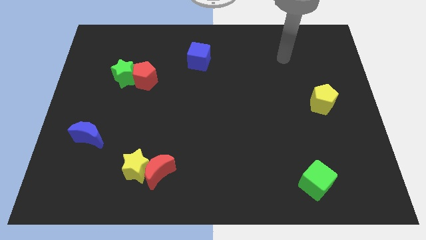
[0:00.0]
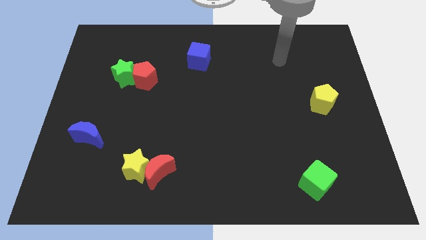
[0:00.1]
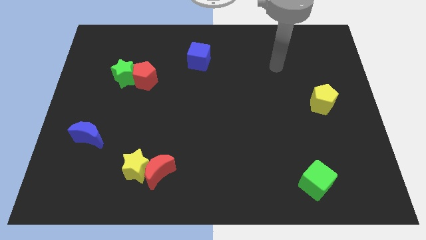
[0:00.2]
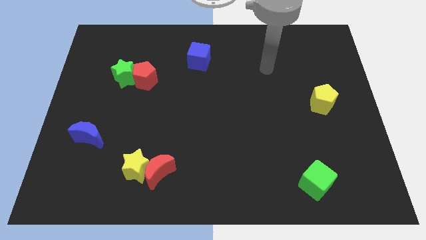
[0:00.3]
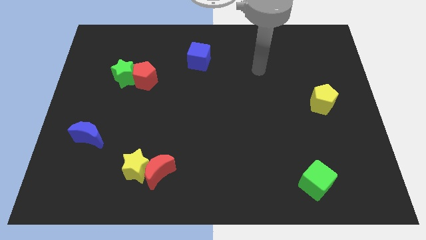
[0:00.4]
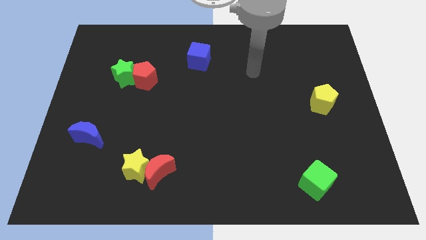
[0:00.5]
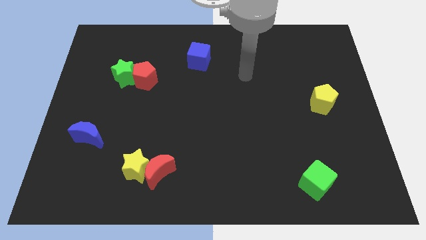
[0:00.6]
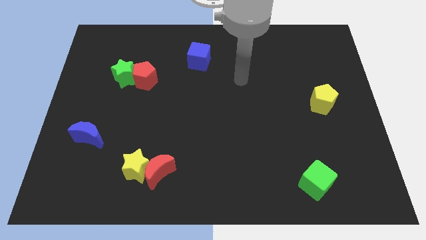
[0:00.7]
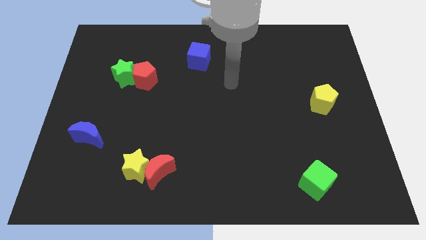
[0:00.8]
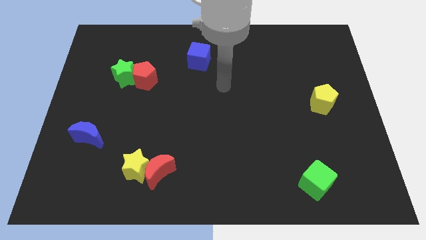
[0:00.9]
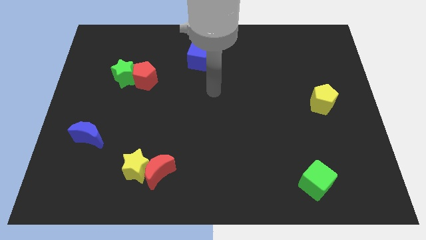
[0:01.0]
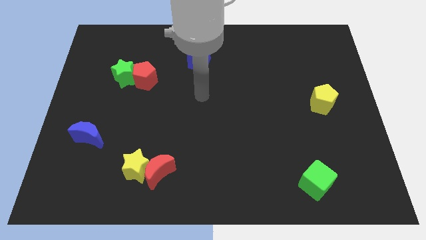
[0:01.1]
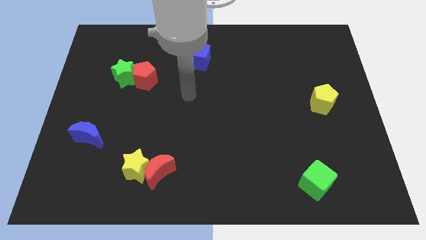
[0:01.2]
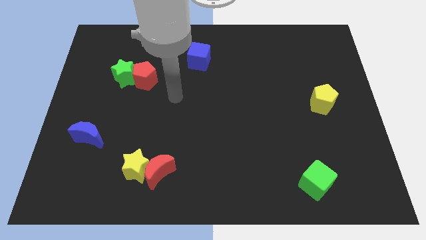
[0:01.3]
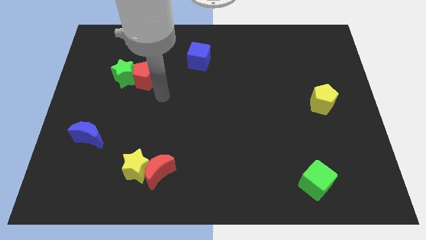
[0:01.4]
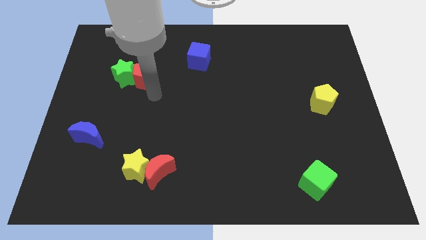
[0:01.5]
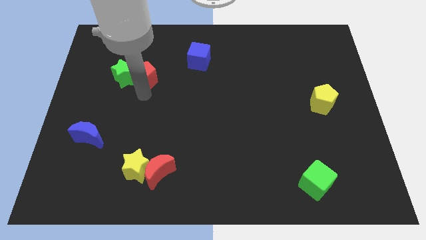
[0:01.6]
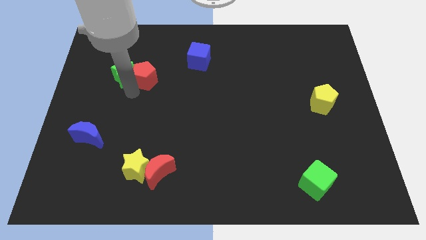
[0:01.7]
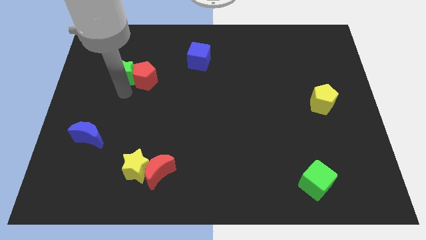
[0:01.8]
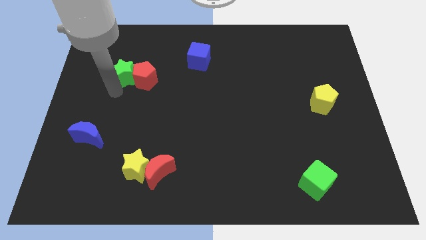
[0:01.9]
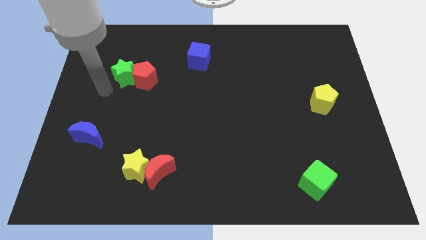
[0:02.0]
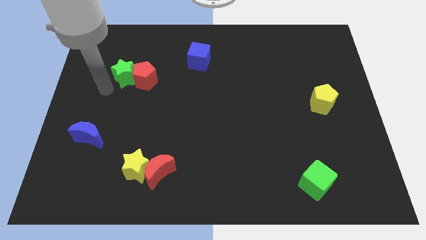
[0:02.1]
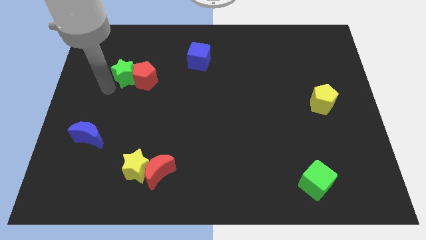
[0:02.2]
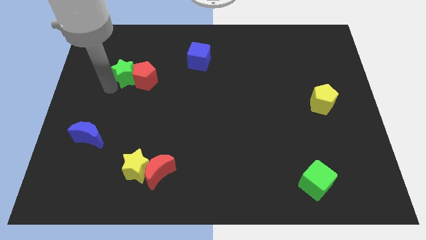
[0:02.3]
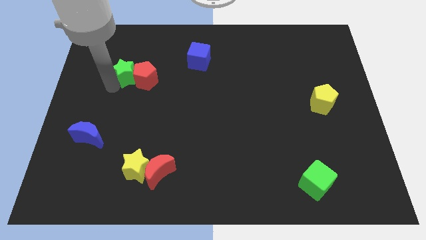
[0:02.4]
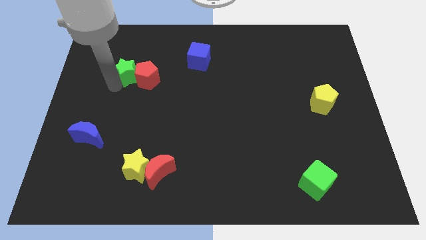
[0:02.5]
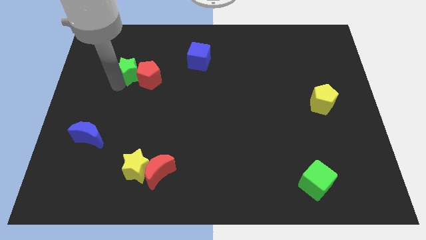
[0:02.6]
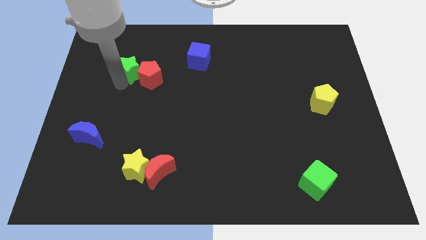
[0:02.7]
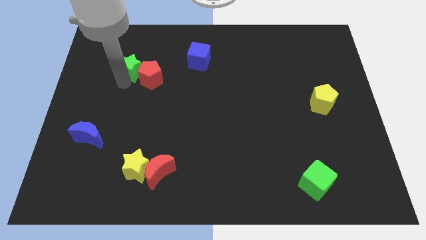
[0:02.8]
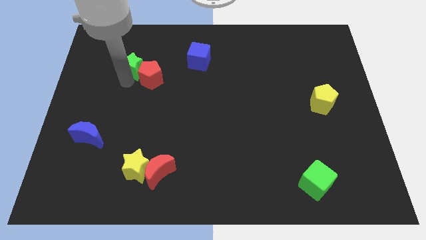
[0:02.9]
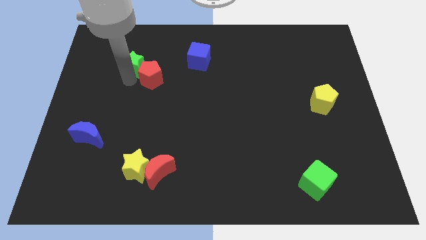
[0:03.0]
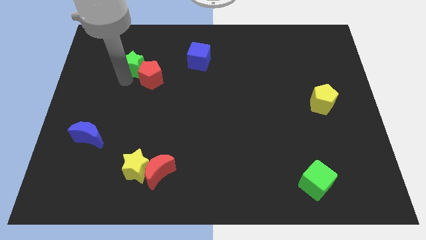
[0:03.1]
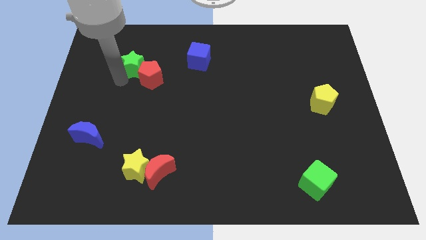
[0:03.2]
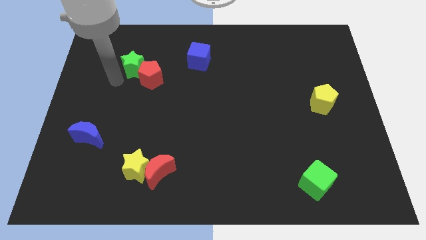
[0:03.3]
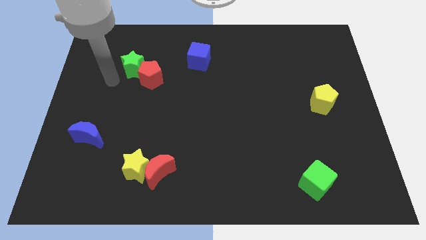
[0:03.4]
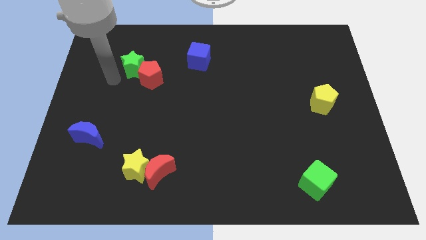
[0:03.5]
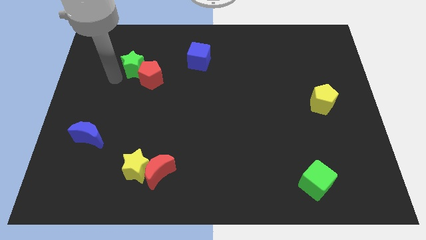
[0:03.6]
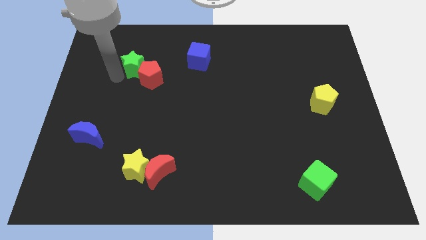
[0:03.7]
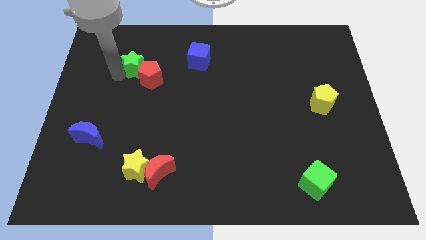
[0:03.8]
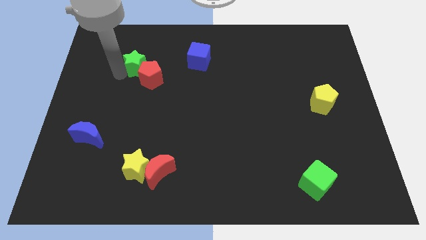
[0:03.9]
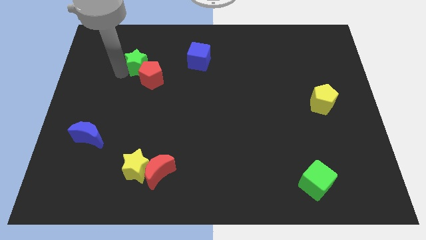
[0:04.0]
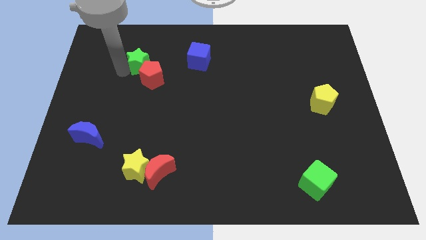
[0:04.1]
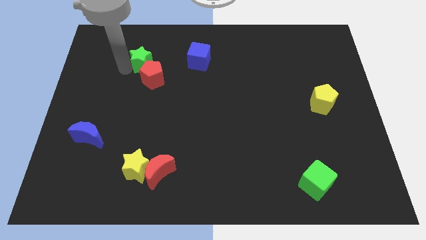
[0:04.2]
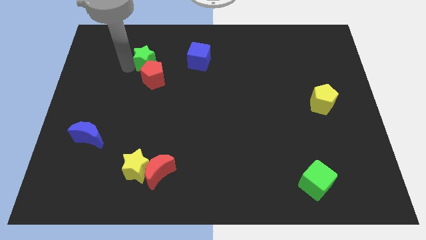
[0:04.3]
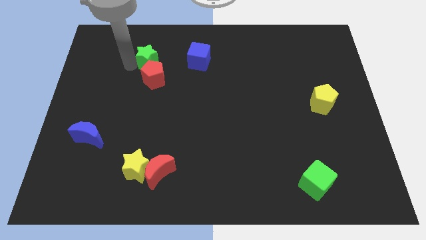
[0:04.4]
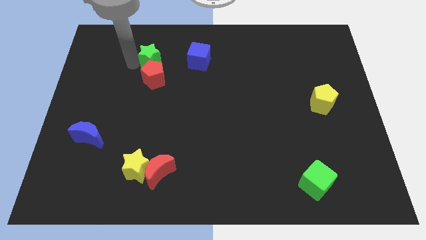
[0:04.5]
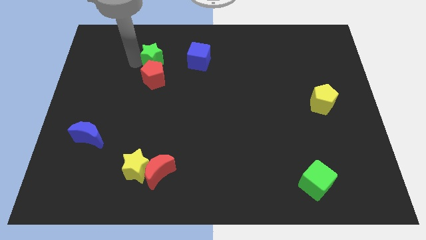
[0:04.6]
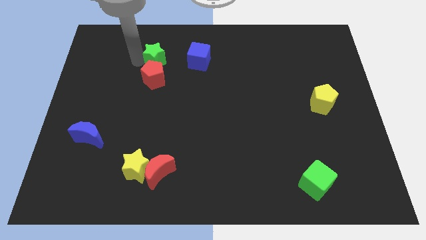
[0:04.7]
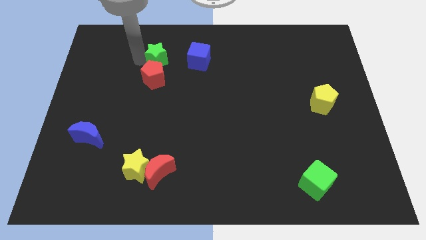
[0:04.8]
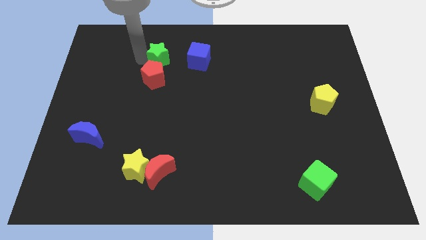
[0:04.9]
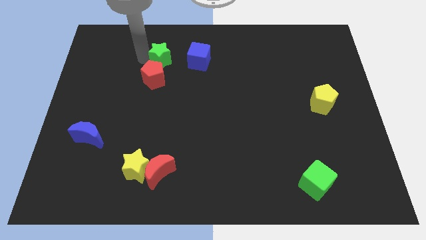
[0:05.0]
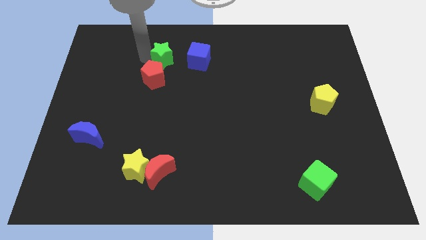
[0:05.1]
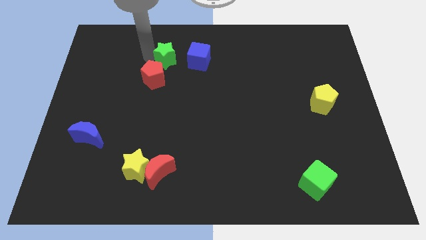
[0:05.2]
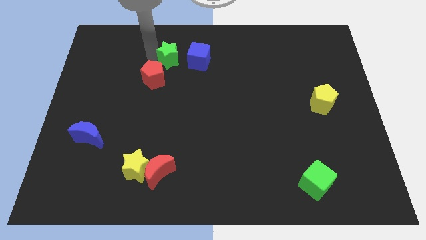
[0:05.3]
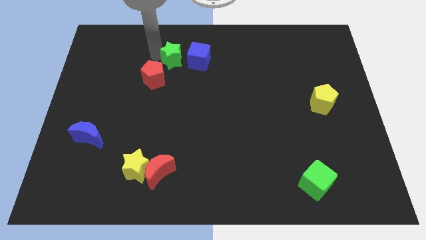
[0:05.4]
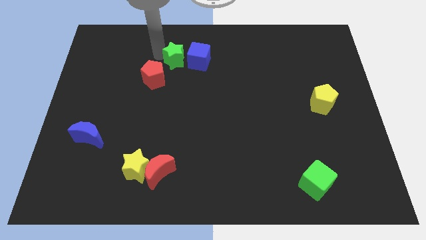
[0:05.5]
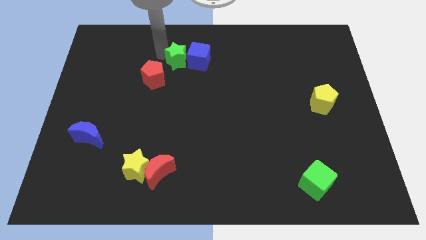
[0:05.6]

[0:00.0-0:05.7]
move the green star next to the blue cube

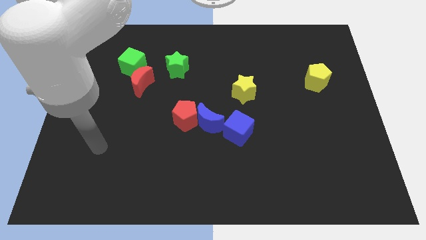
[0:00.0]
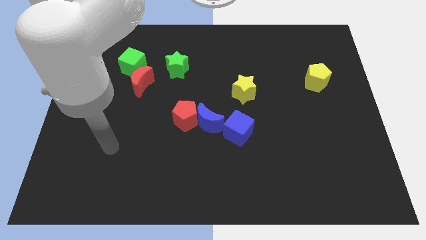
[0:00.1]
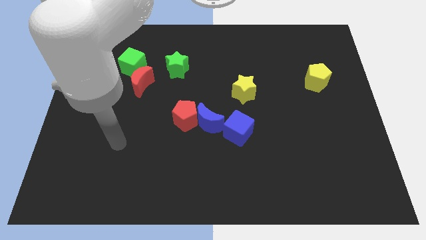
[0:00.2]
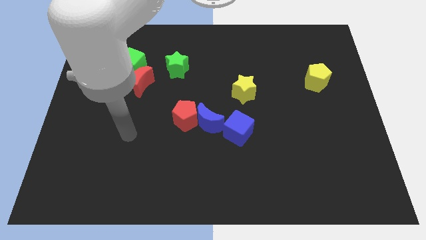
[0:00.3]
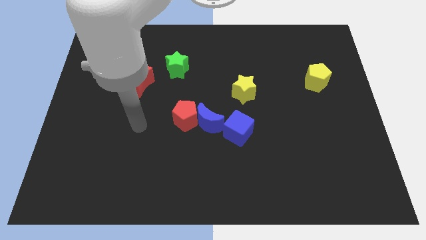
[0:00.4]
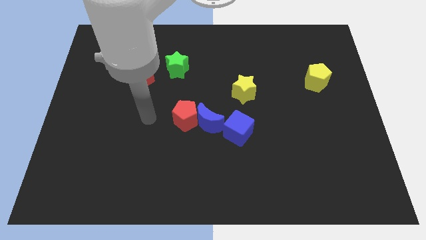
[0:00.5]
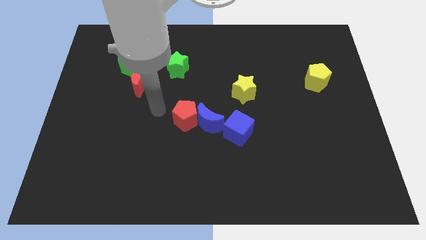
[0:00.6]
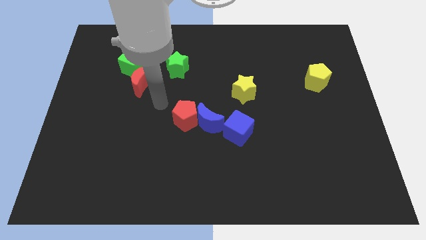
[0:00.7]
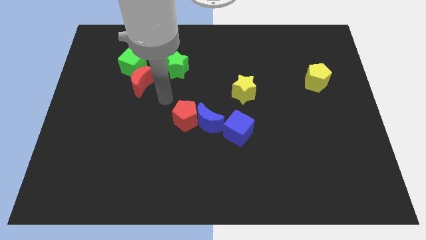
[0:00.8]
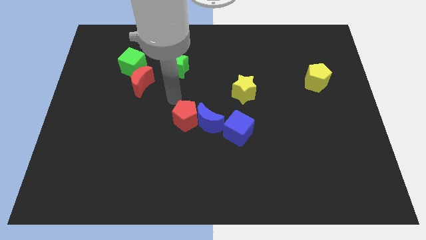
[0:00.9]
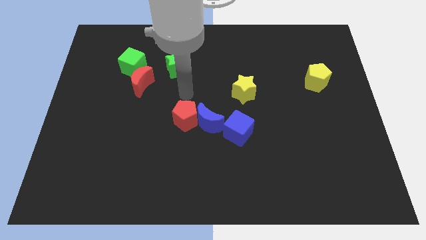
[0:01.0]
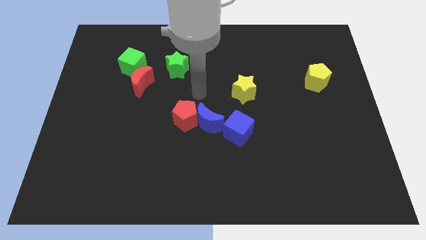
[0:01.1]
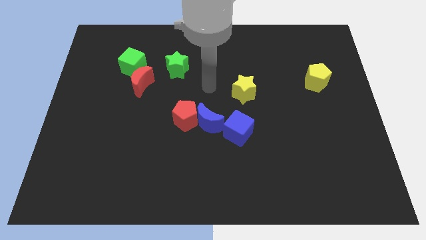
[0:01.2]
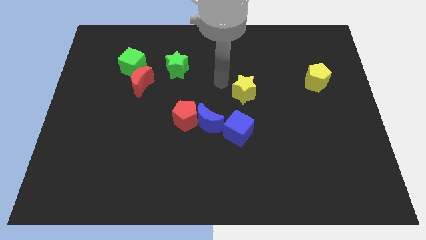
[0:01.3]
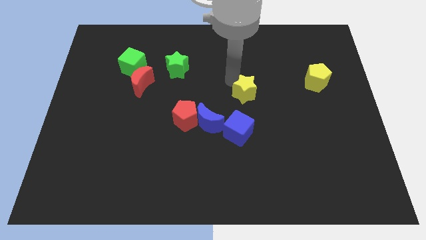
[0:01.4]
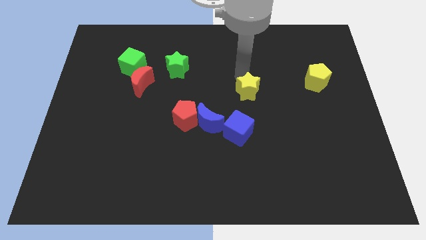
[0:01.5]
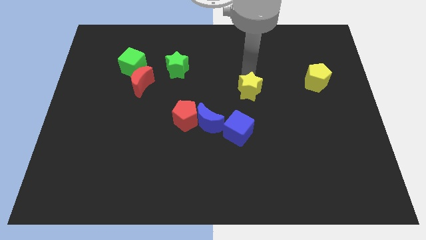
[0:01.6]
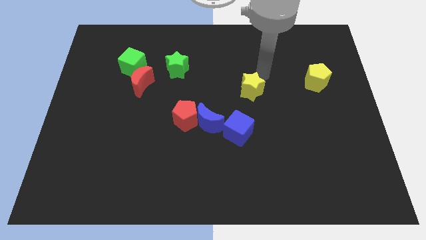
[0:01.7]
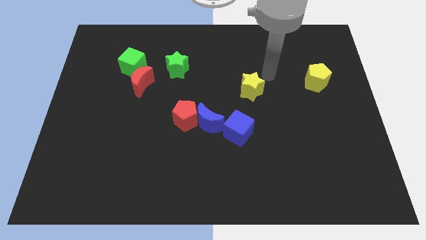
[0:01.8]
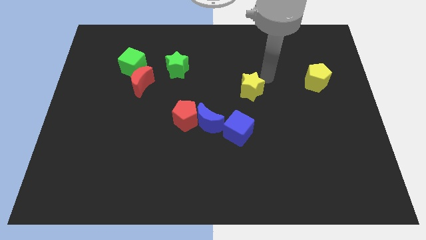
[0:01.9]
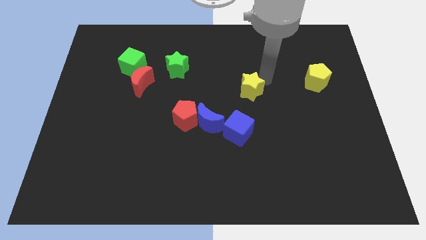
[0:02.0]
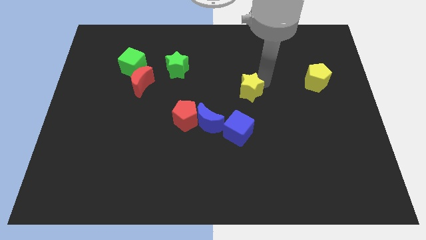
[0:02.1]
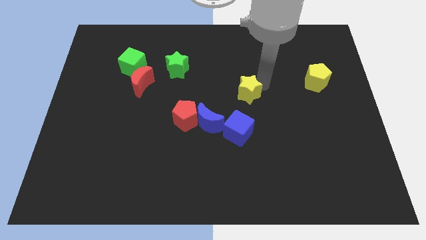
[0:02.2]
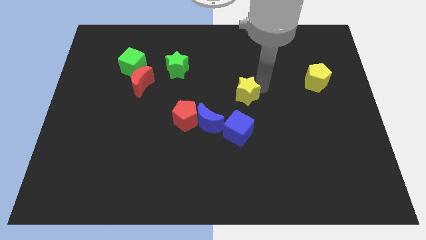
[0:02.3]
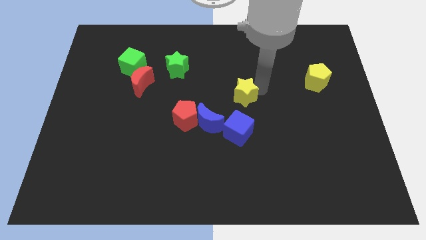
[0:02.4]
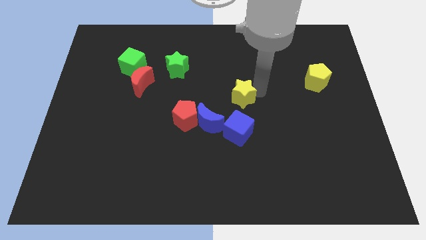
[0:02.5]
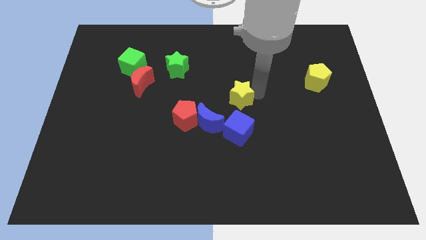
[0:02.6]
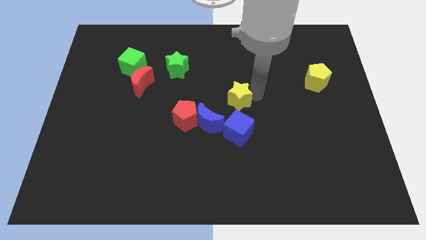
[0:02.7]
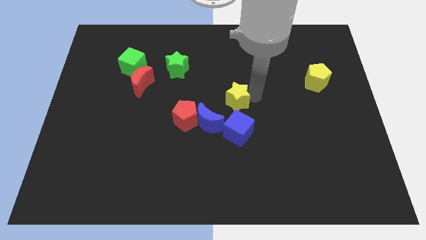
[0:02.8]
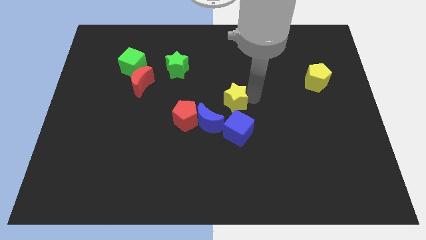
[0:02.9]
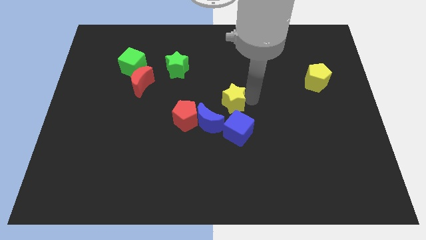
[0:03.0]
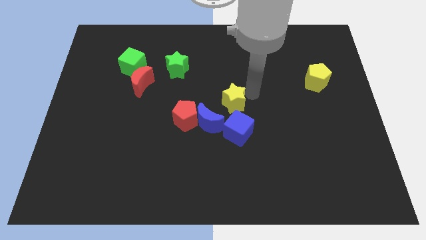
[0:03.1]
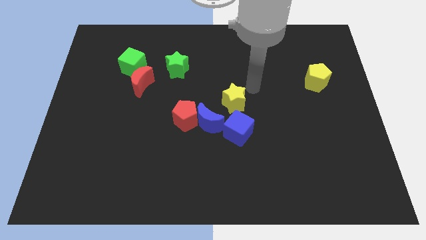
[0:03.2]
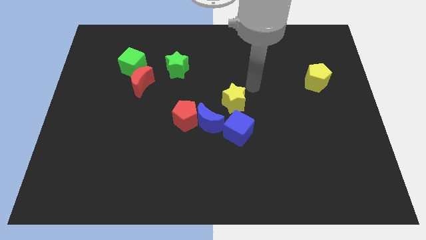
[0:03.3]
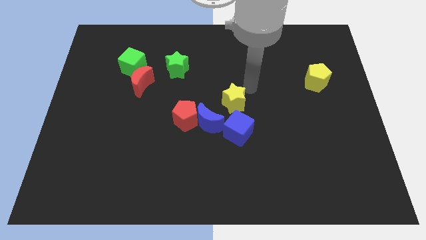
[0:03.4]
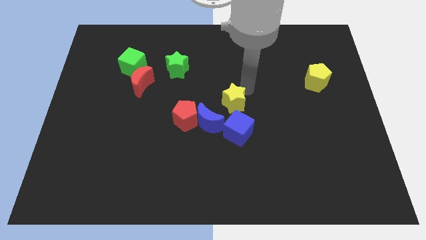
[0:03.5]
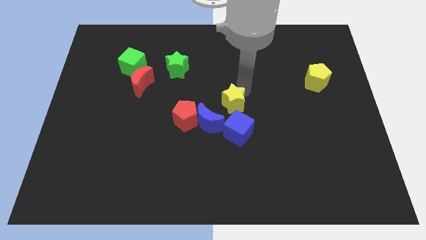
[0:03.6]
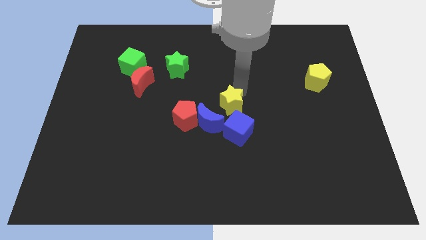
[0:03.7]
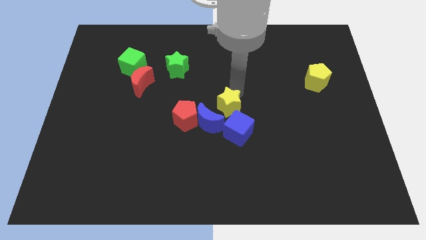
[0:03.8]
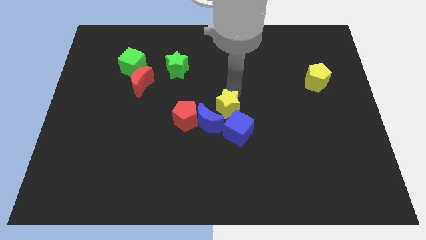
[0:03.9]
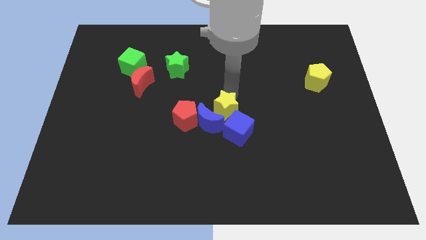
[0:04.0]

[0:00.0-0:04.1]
move the yellow star to the blue moon
